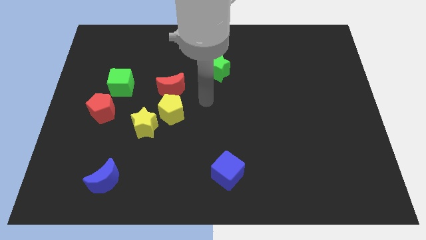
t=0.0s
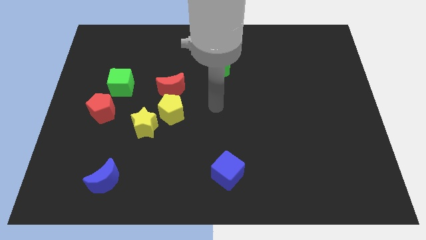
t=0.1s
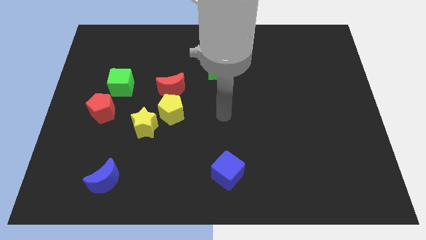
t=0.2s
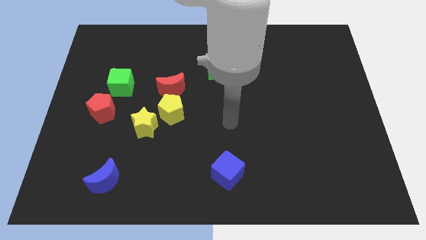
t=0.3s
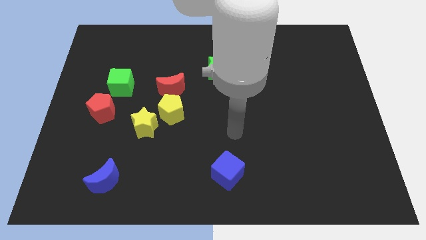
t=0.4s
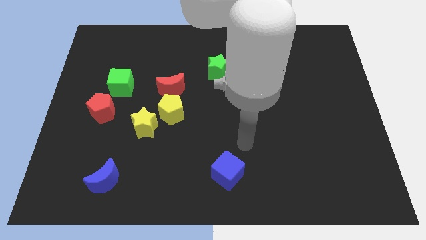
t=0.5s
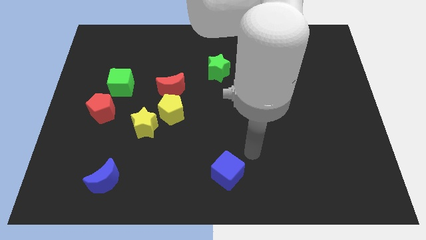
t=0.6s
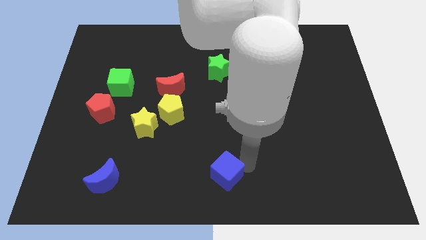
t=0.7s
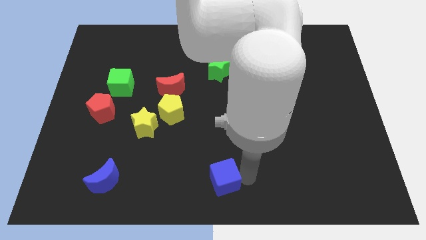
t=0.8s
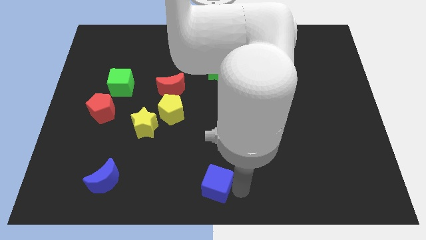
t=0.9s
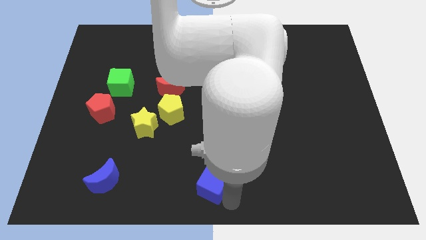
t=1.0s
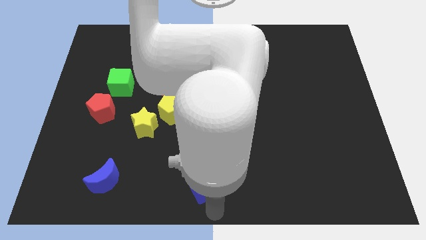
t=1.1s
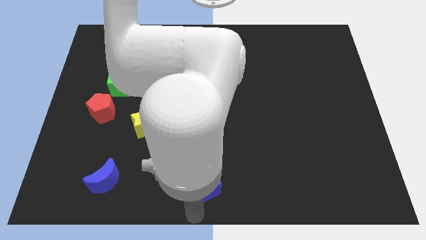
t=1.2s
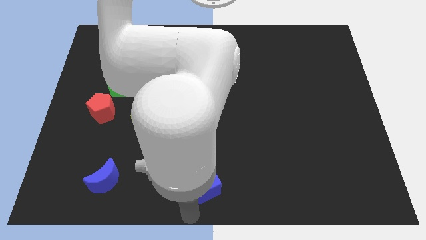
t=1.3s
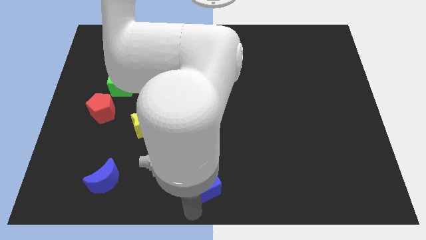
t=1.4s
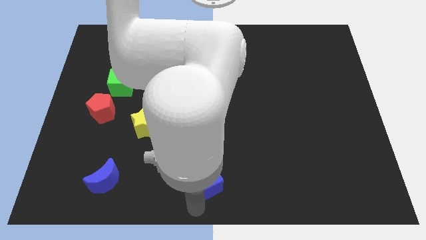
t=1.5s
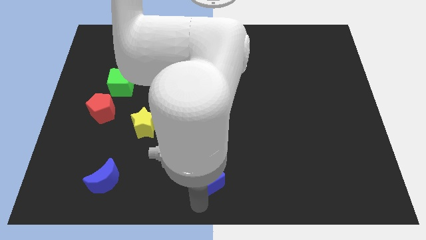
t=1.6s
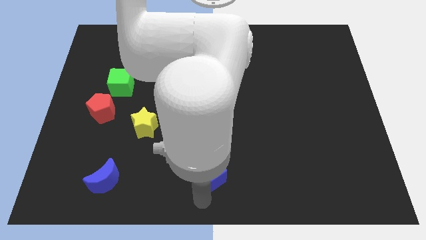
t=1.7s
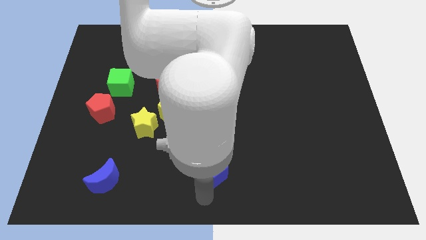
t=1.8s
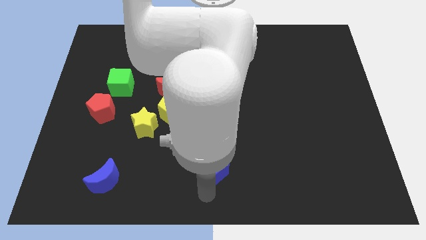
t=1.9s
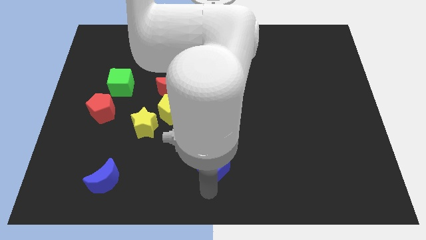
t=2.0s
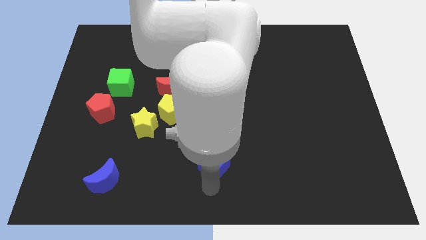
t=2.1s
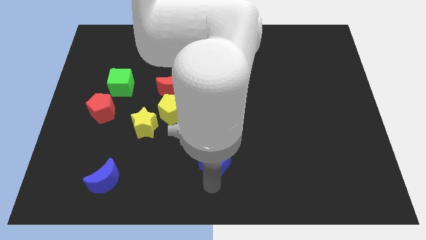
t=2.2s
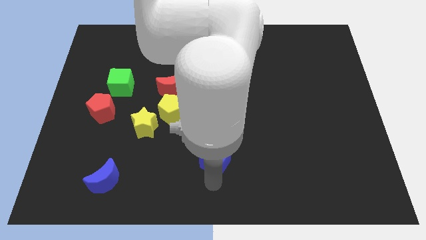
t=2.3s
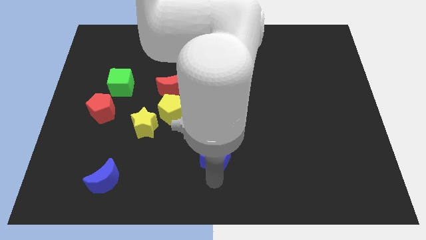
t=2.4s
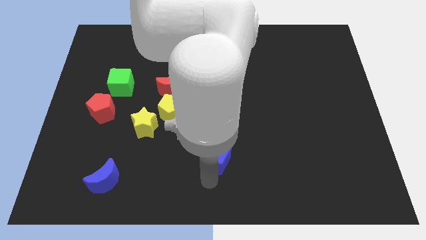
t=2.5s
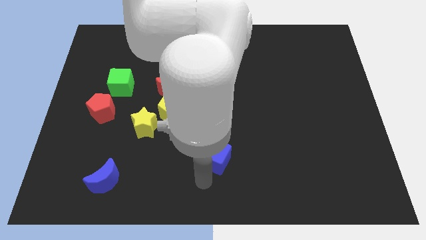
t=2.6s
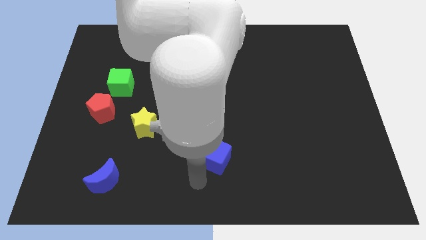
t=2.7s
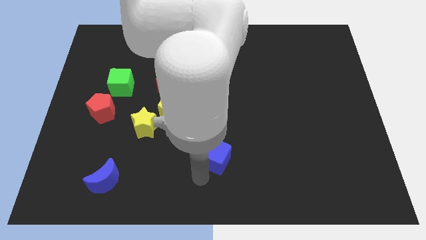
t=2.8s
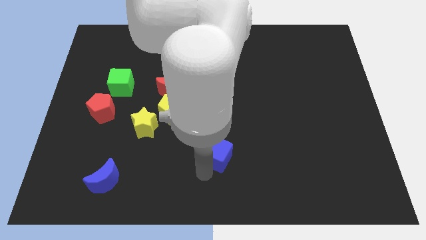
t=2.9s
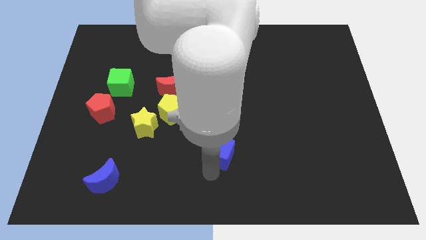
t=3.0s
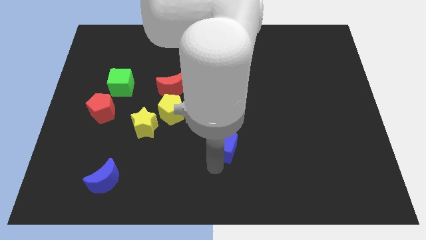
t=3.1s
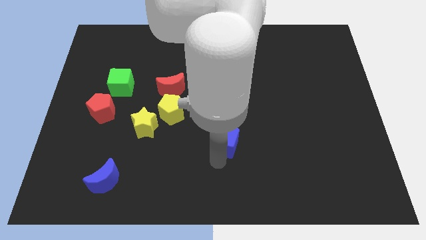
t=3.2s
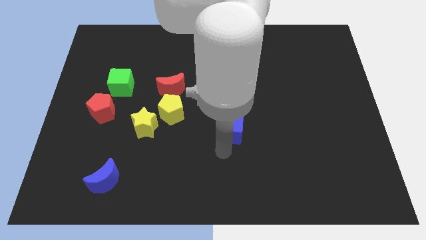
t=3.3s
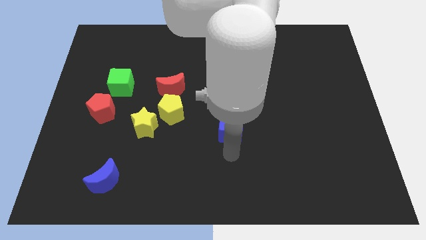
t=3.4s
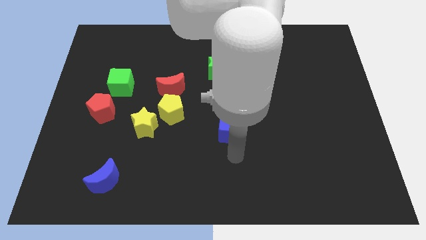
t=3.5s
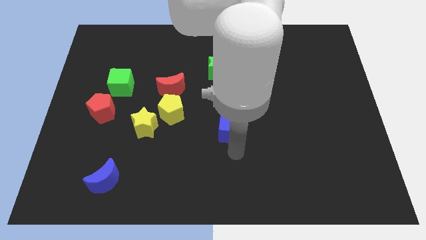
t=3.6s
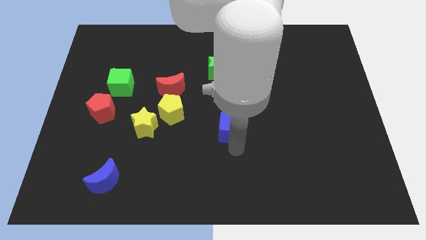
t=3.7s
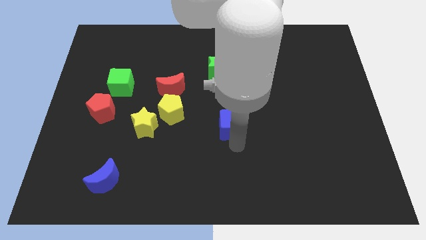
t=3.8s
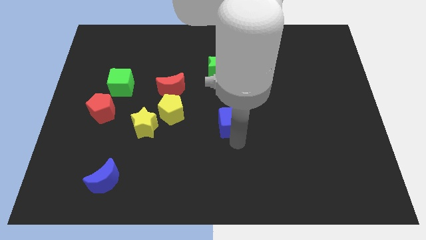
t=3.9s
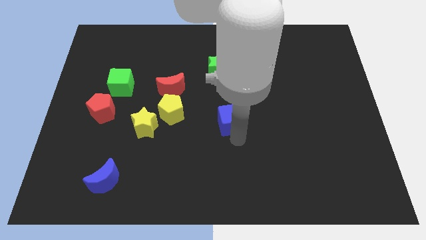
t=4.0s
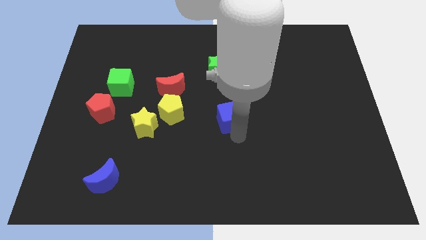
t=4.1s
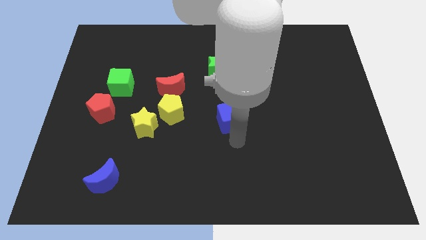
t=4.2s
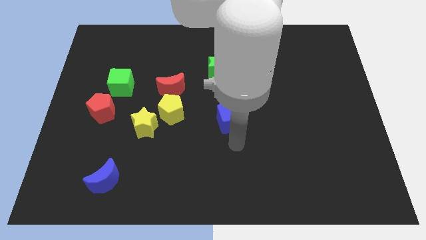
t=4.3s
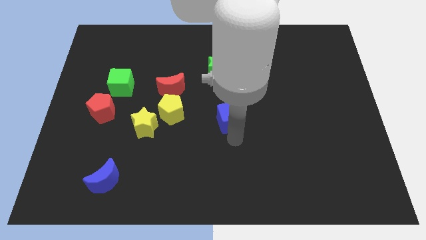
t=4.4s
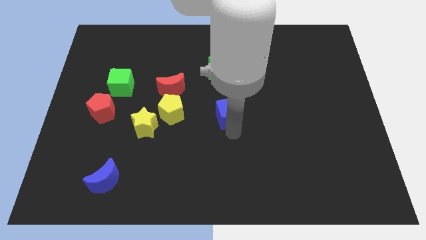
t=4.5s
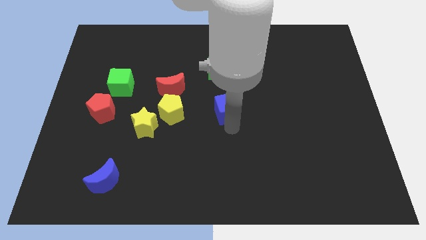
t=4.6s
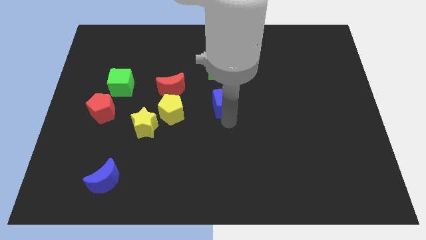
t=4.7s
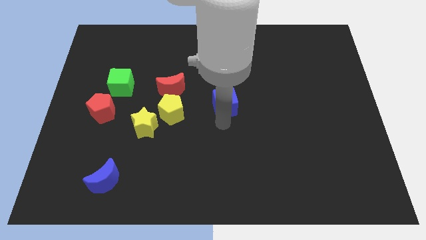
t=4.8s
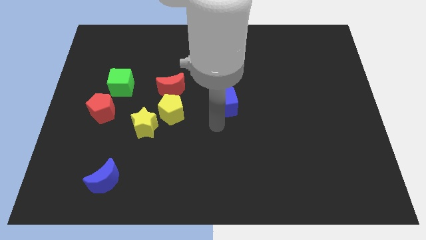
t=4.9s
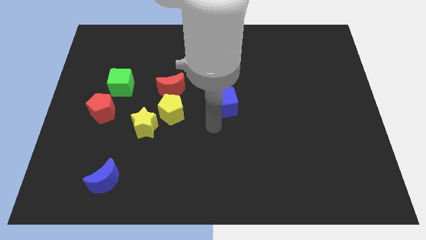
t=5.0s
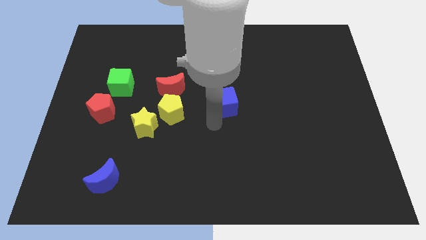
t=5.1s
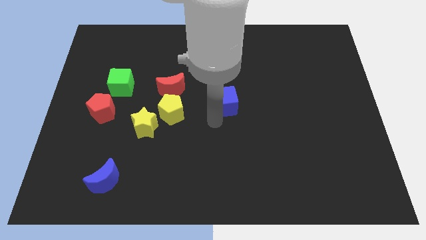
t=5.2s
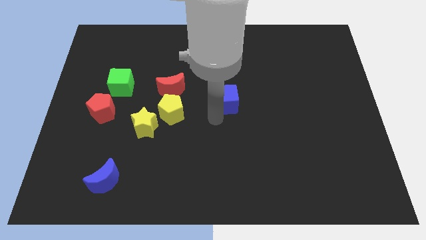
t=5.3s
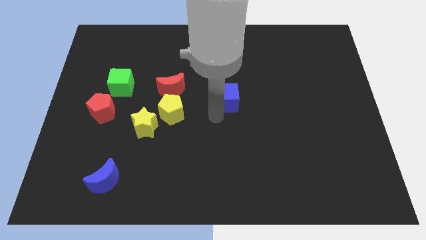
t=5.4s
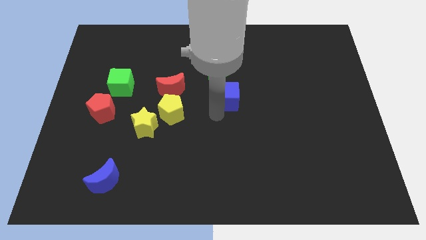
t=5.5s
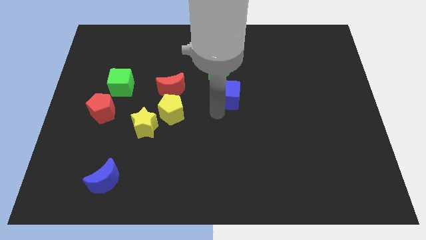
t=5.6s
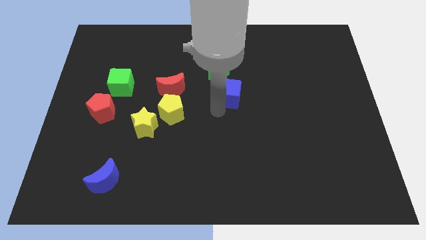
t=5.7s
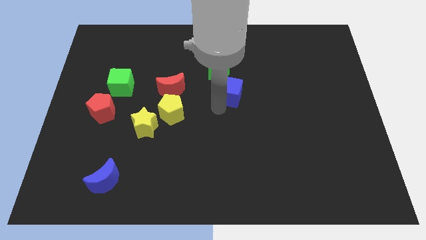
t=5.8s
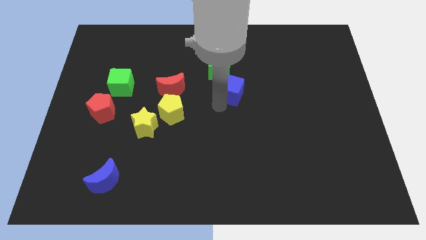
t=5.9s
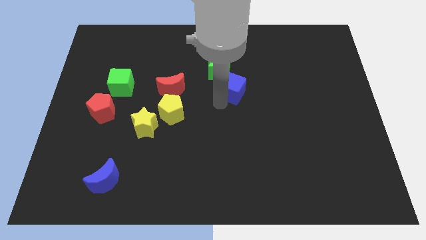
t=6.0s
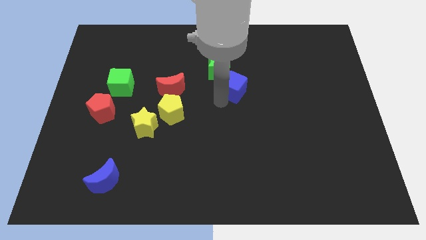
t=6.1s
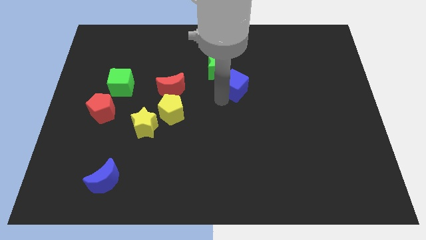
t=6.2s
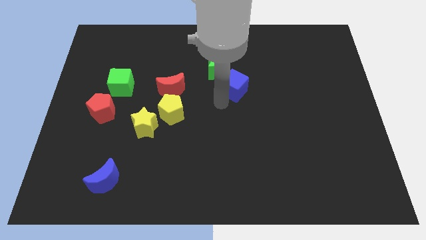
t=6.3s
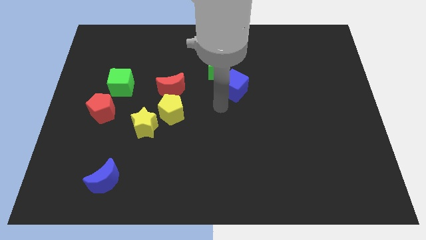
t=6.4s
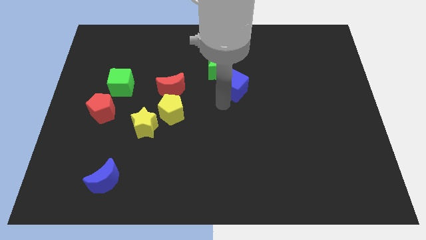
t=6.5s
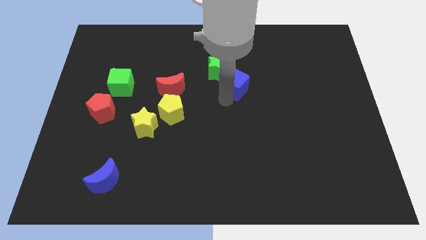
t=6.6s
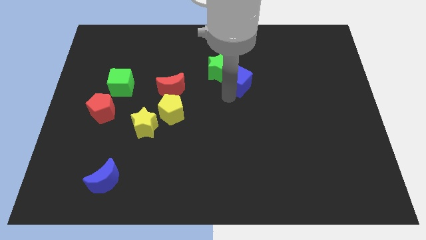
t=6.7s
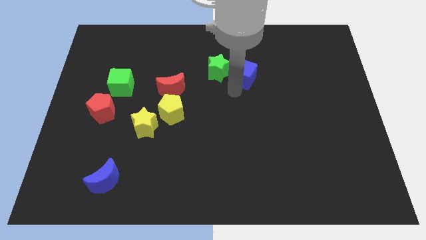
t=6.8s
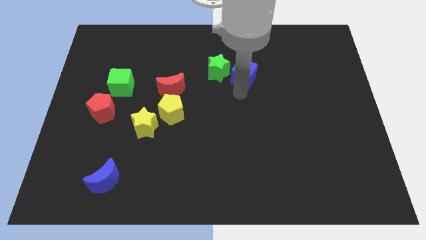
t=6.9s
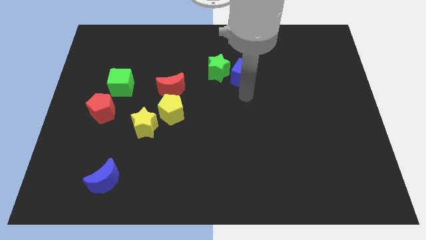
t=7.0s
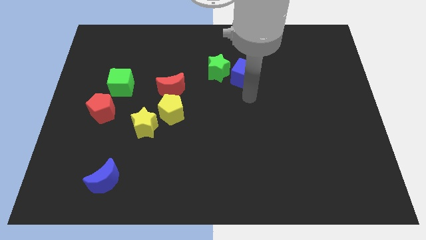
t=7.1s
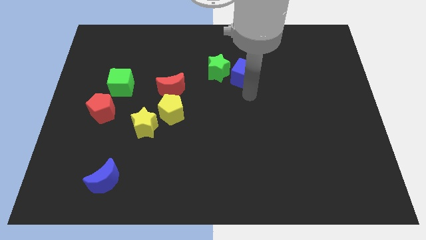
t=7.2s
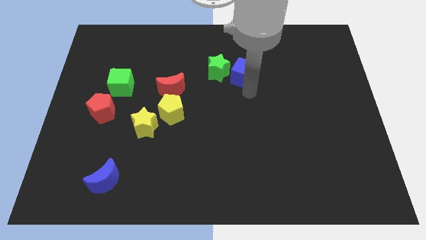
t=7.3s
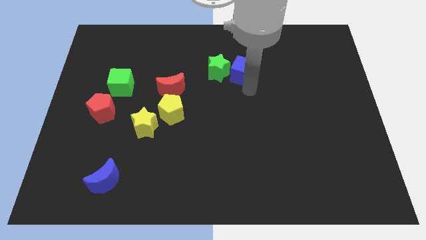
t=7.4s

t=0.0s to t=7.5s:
move the blue cube diagonally up and to the right of the green star

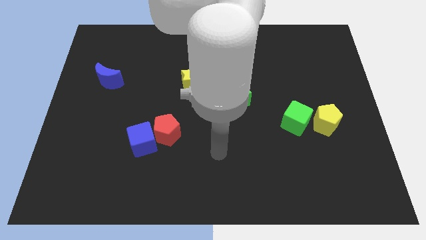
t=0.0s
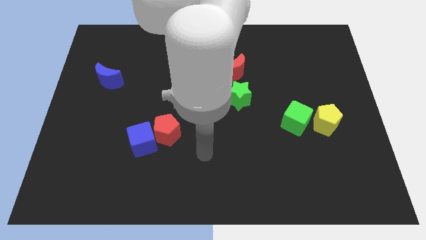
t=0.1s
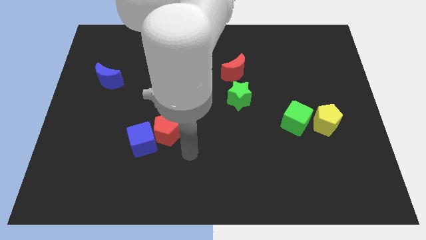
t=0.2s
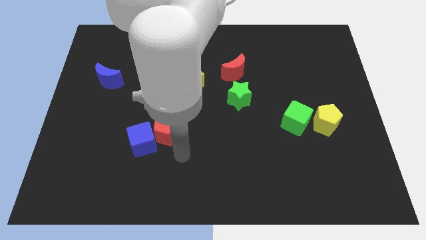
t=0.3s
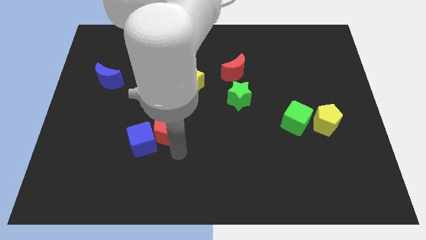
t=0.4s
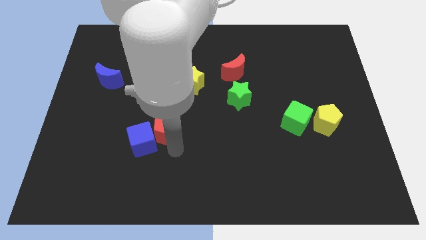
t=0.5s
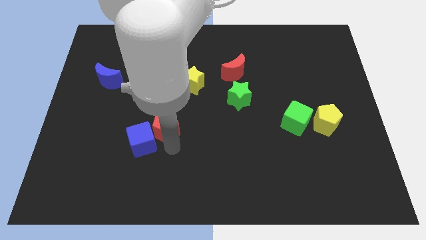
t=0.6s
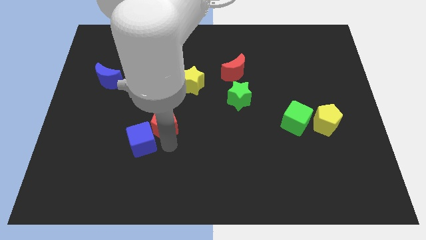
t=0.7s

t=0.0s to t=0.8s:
slide the red pentagon to the top of the blue cube
